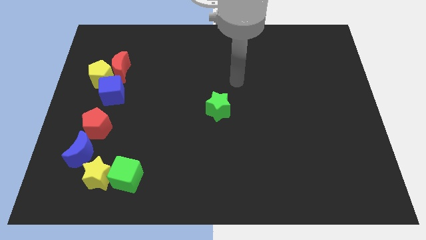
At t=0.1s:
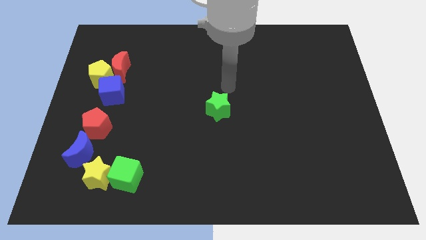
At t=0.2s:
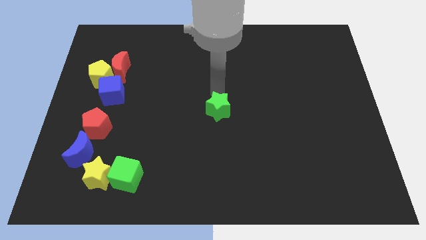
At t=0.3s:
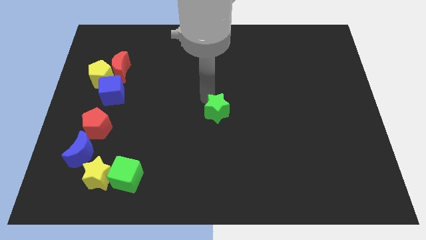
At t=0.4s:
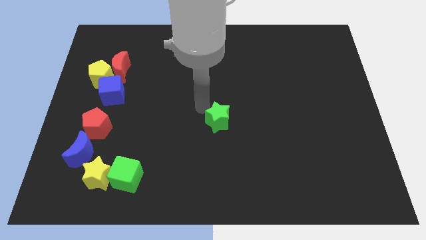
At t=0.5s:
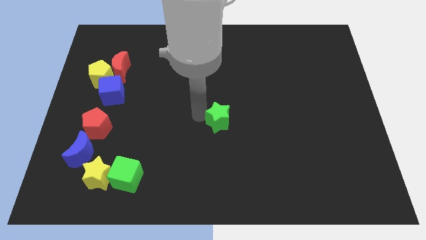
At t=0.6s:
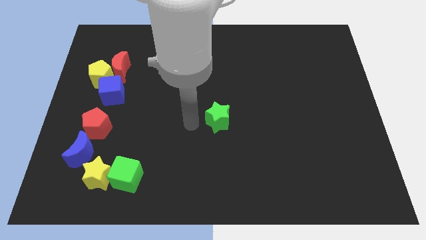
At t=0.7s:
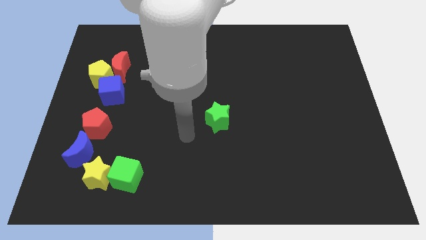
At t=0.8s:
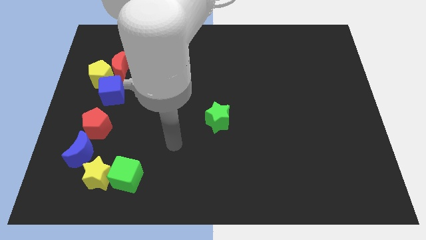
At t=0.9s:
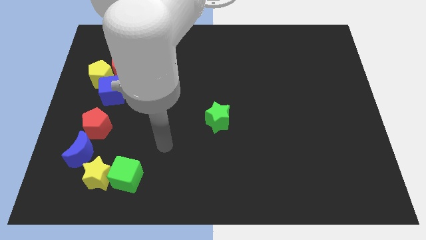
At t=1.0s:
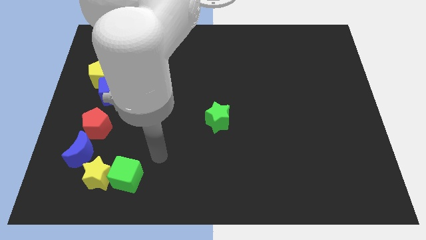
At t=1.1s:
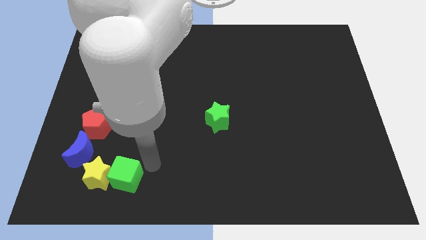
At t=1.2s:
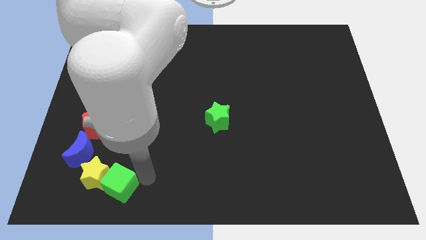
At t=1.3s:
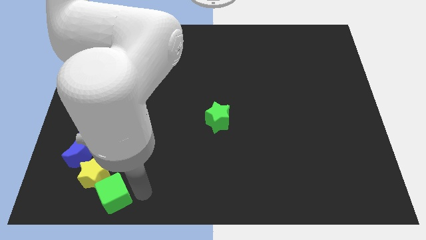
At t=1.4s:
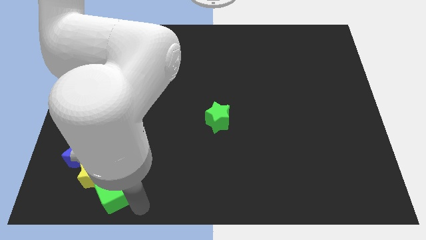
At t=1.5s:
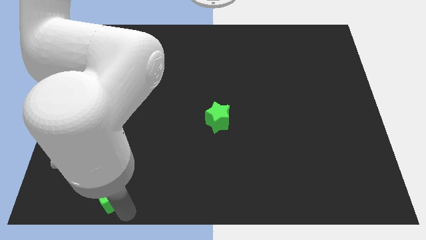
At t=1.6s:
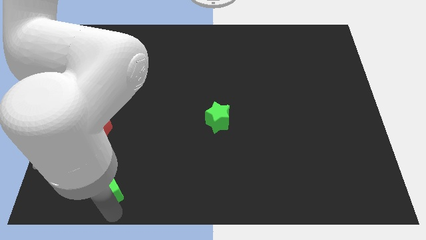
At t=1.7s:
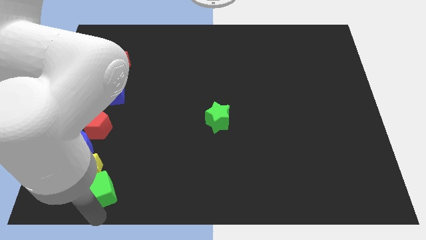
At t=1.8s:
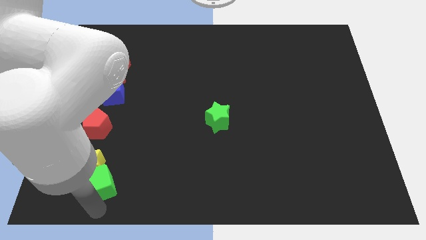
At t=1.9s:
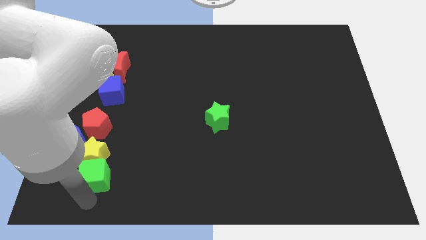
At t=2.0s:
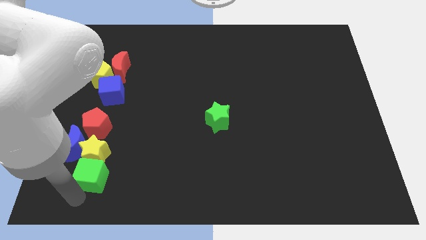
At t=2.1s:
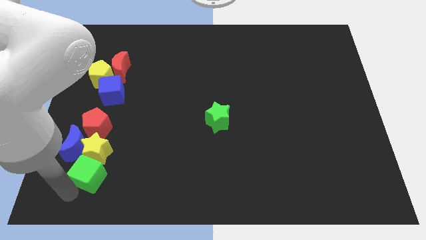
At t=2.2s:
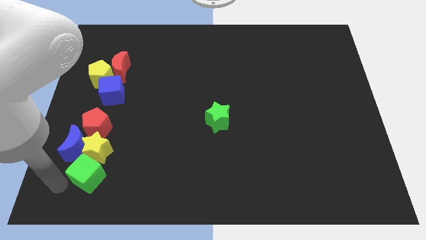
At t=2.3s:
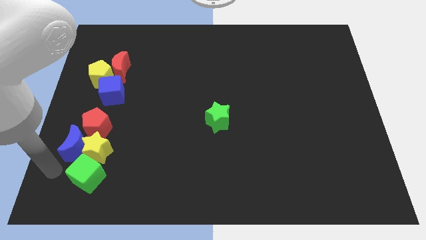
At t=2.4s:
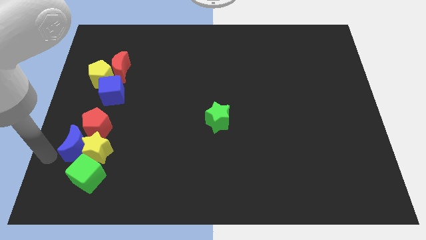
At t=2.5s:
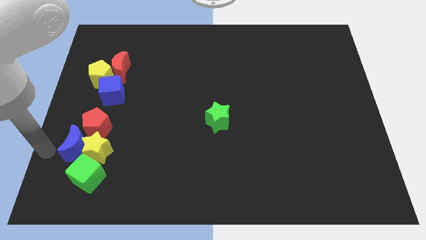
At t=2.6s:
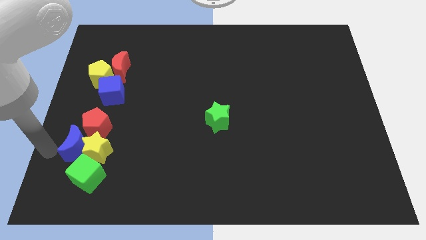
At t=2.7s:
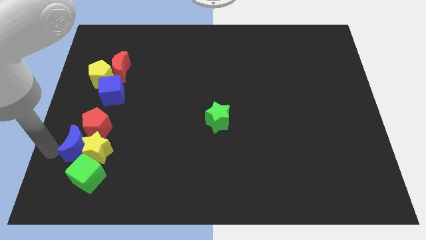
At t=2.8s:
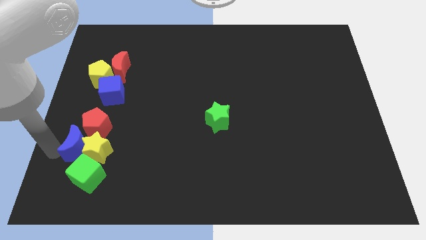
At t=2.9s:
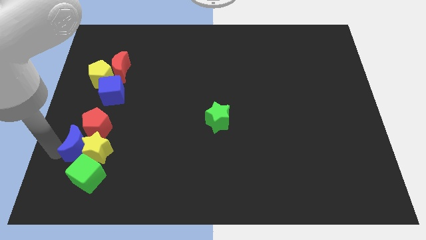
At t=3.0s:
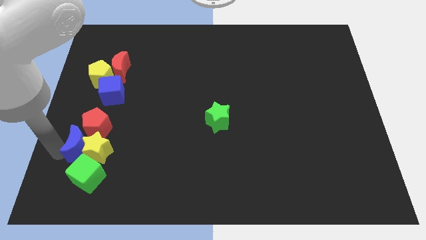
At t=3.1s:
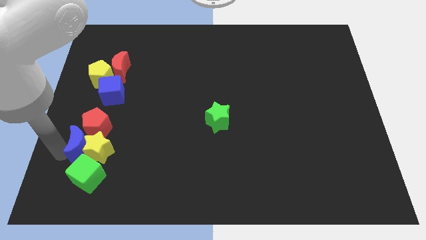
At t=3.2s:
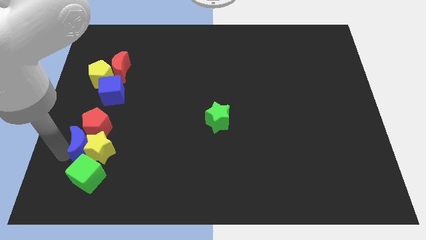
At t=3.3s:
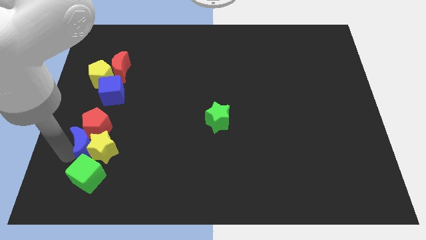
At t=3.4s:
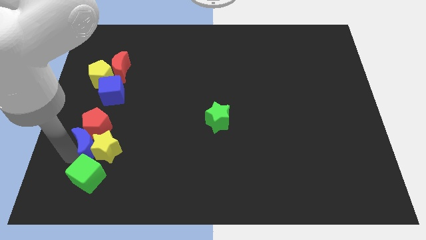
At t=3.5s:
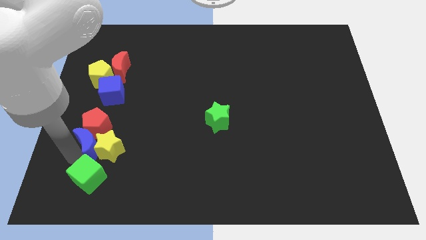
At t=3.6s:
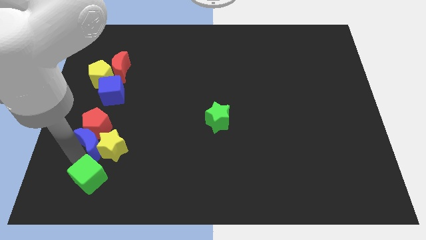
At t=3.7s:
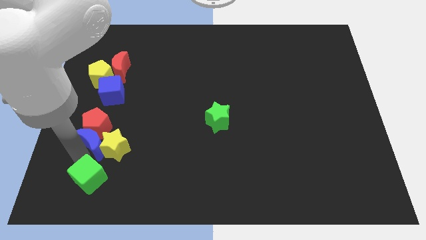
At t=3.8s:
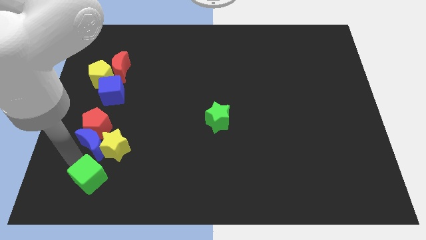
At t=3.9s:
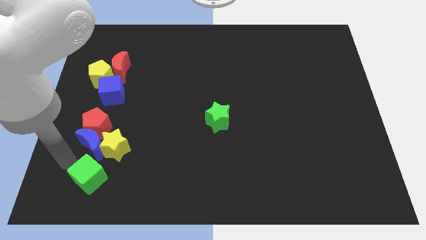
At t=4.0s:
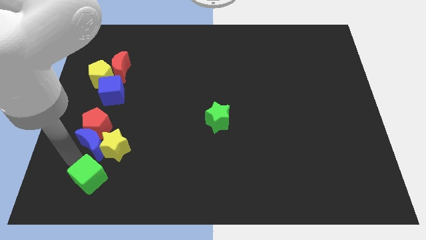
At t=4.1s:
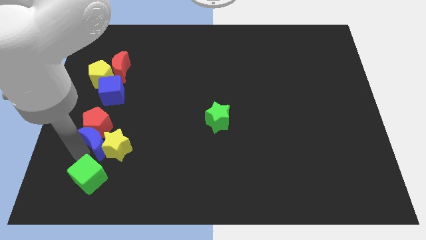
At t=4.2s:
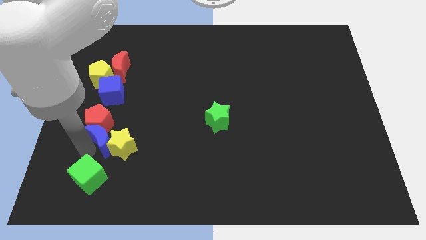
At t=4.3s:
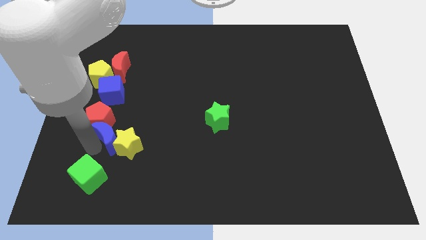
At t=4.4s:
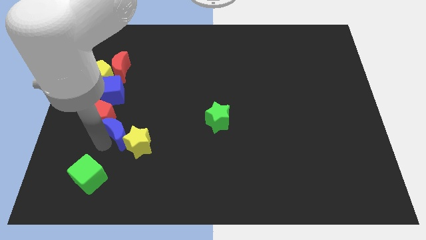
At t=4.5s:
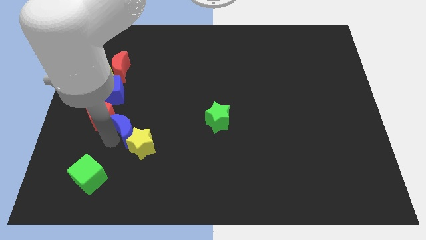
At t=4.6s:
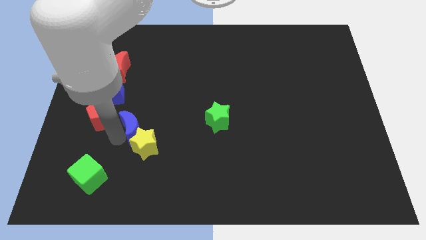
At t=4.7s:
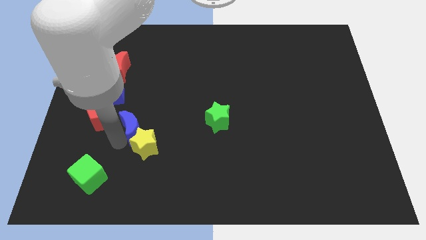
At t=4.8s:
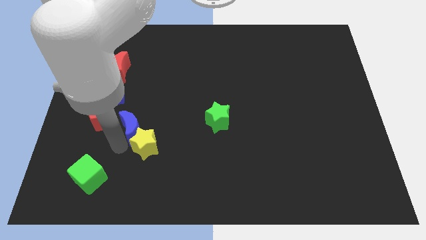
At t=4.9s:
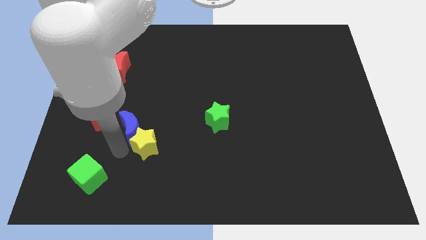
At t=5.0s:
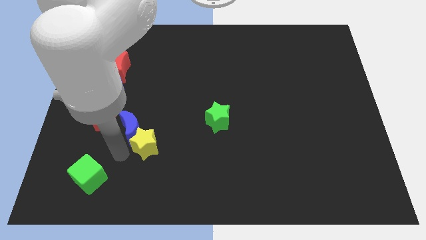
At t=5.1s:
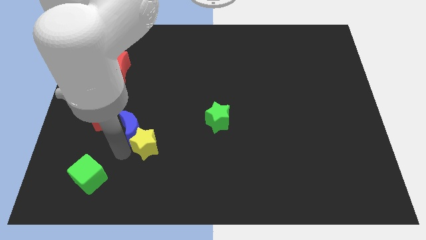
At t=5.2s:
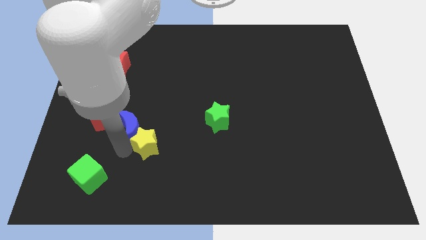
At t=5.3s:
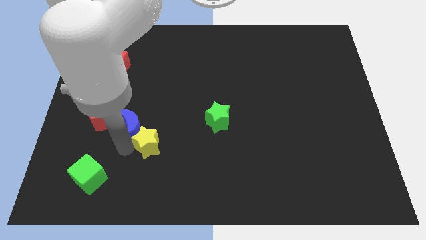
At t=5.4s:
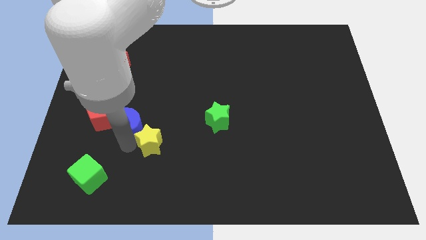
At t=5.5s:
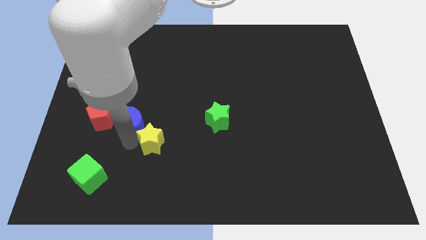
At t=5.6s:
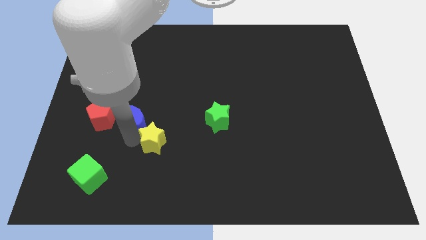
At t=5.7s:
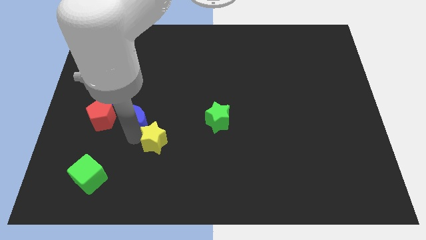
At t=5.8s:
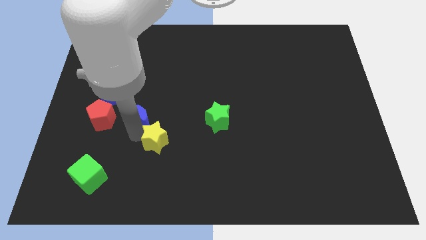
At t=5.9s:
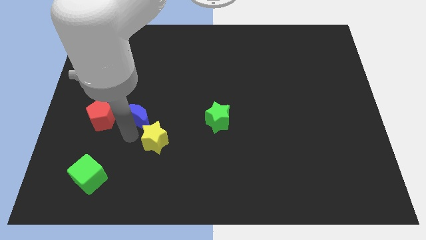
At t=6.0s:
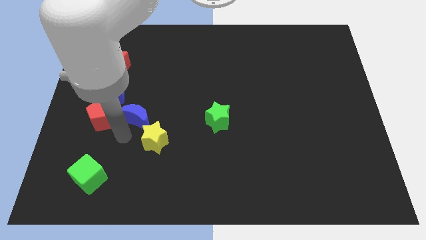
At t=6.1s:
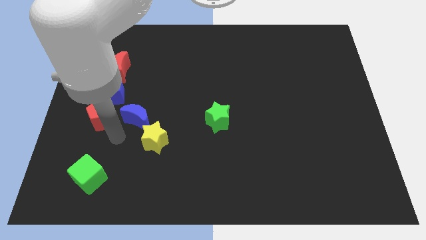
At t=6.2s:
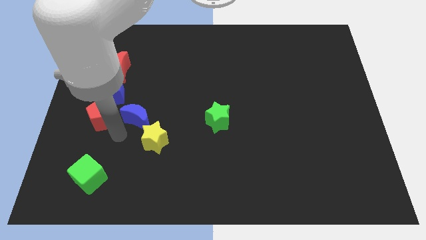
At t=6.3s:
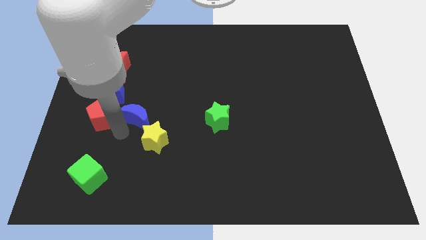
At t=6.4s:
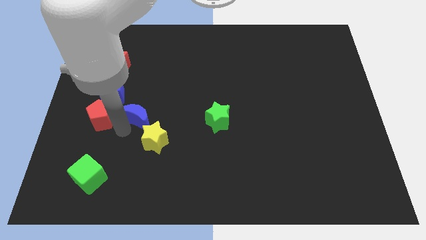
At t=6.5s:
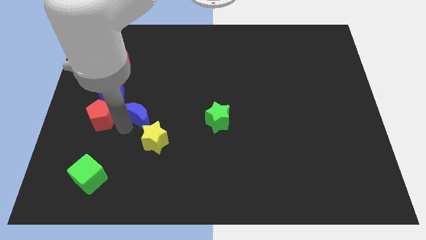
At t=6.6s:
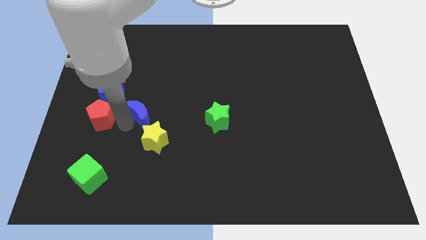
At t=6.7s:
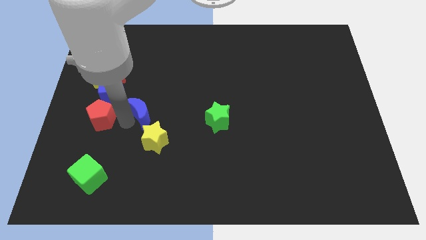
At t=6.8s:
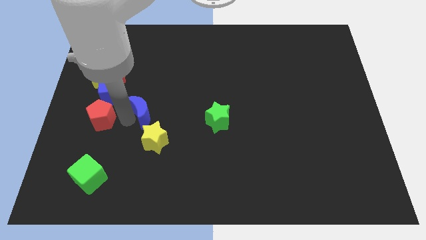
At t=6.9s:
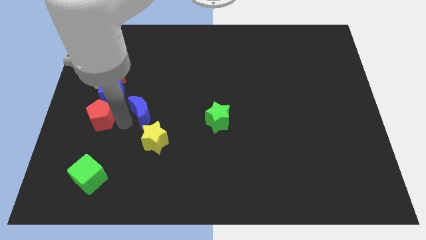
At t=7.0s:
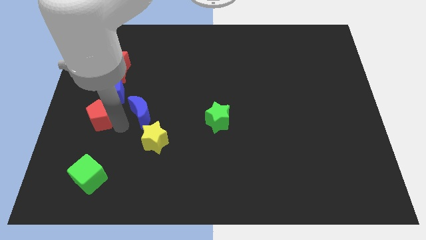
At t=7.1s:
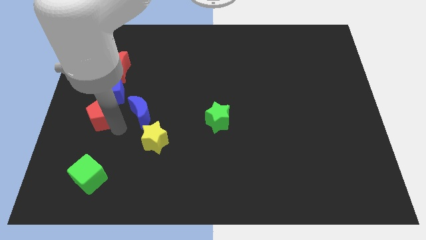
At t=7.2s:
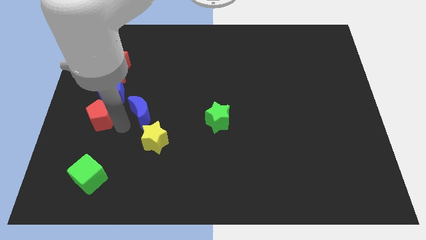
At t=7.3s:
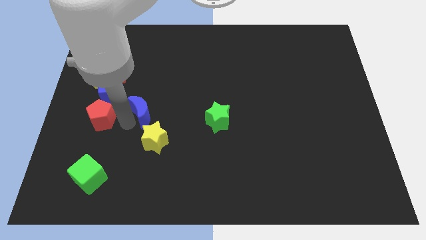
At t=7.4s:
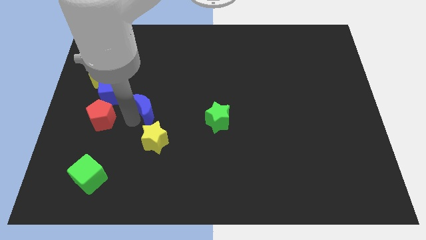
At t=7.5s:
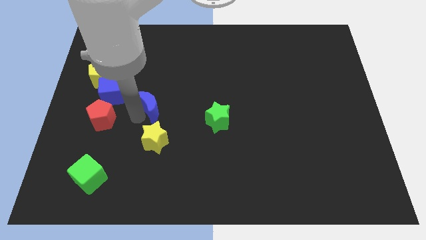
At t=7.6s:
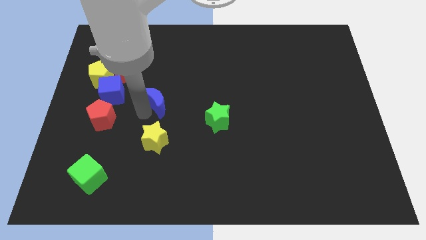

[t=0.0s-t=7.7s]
slide the blue moon upwards and to the right diagonally

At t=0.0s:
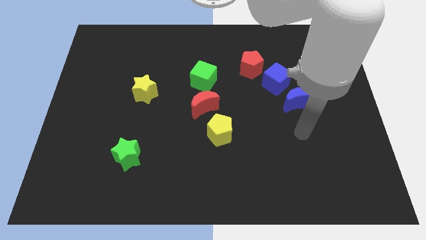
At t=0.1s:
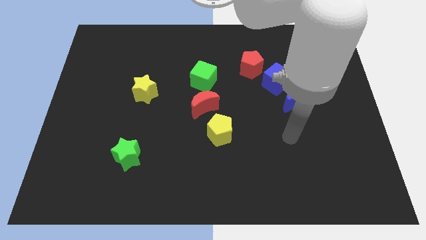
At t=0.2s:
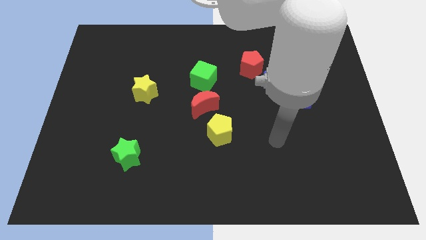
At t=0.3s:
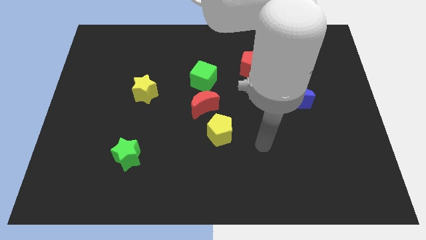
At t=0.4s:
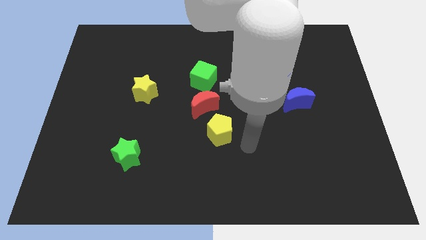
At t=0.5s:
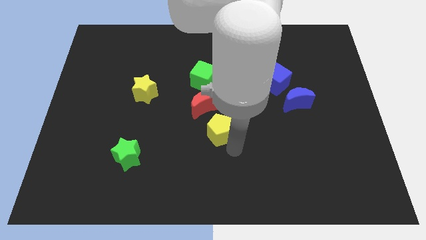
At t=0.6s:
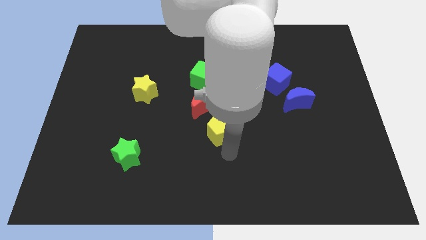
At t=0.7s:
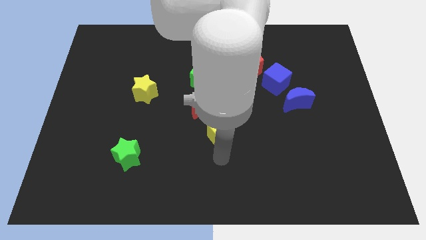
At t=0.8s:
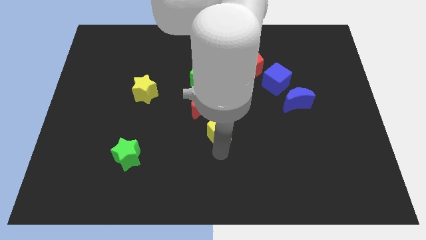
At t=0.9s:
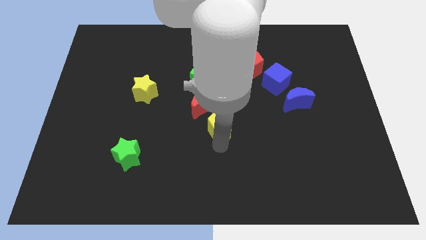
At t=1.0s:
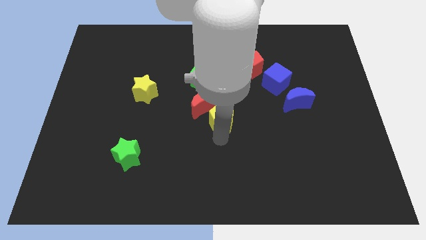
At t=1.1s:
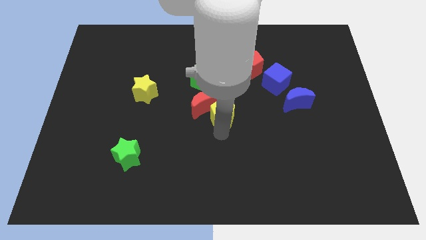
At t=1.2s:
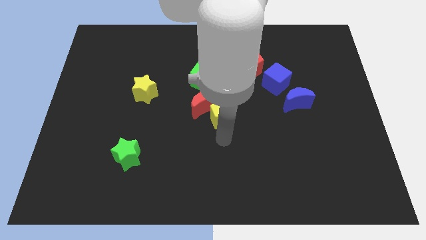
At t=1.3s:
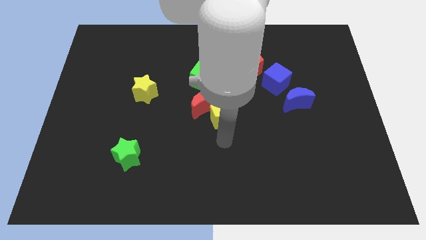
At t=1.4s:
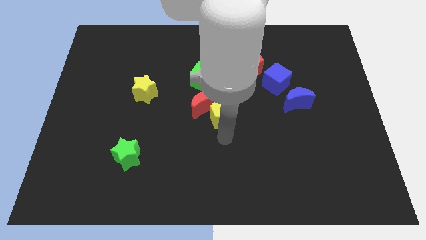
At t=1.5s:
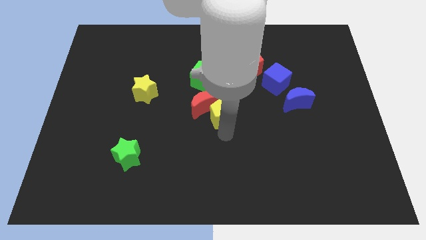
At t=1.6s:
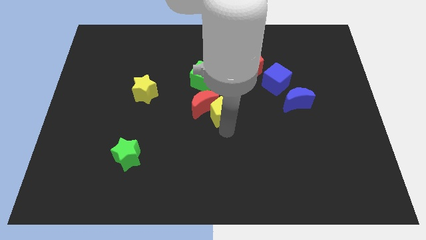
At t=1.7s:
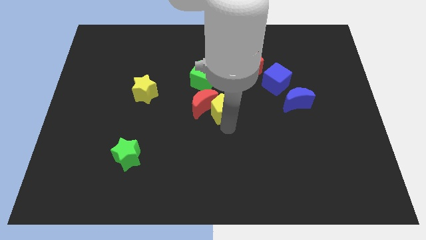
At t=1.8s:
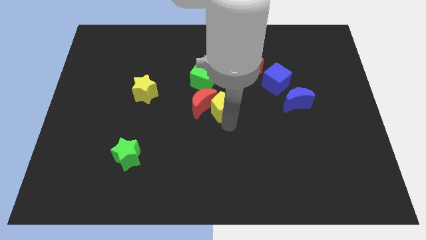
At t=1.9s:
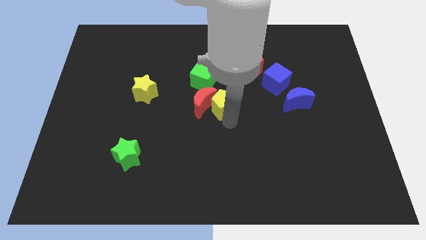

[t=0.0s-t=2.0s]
slightly push the yellow pentagon upwards
